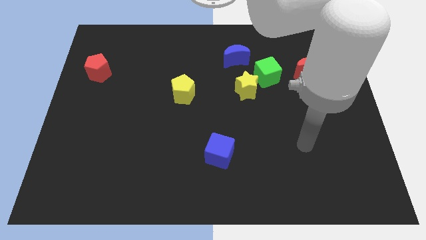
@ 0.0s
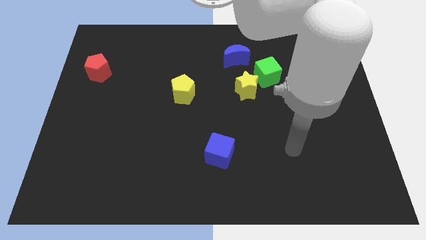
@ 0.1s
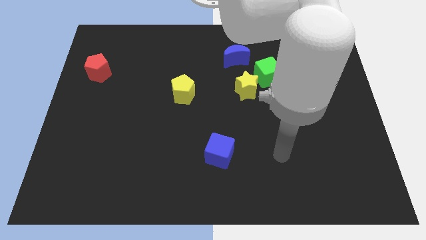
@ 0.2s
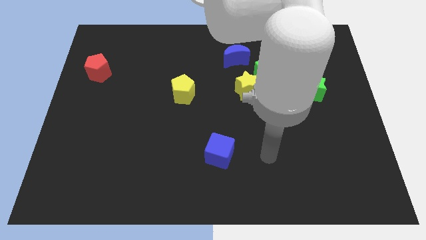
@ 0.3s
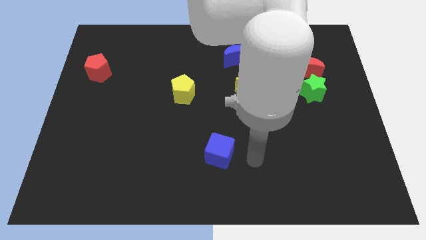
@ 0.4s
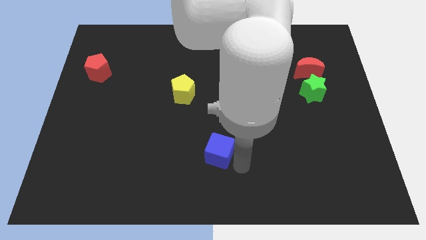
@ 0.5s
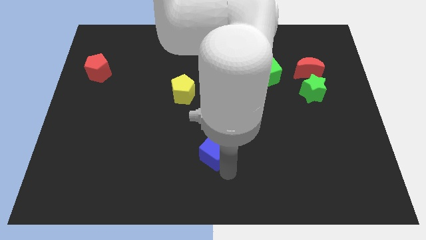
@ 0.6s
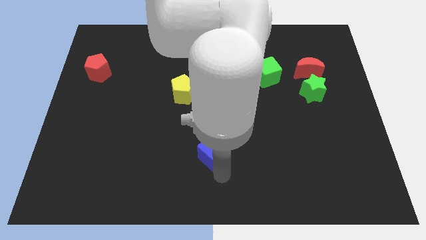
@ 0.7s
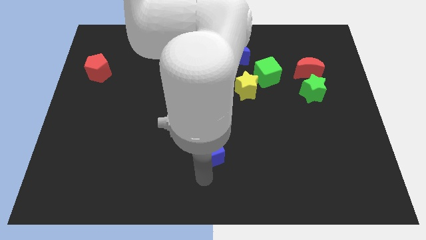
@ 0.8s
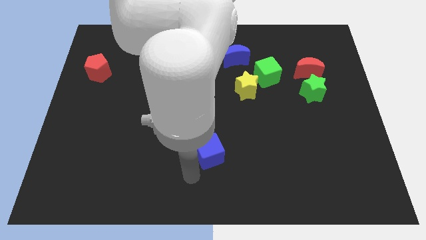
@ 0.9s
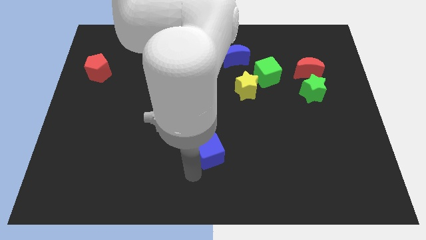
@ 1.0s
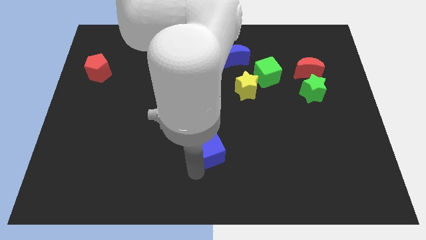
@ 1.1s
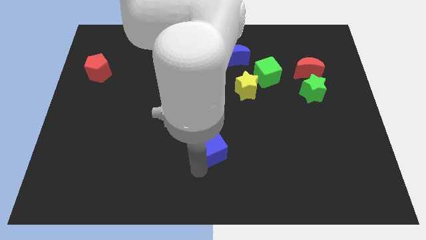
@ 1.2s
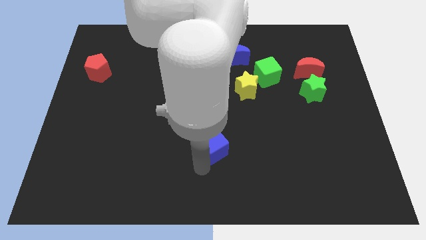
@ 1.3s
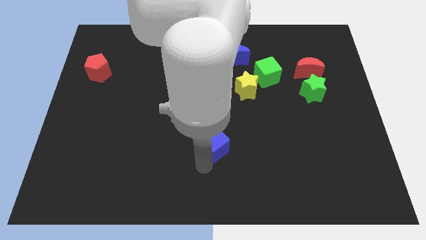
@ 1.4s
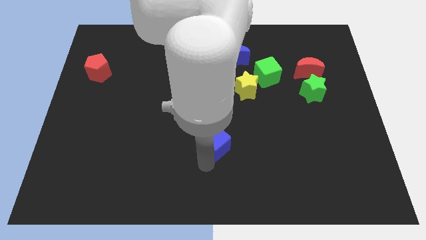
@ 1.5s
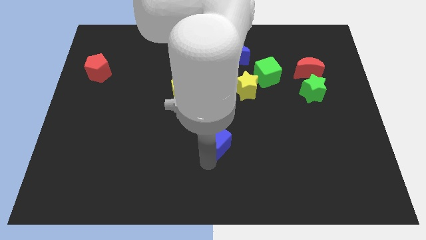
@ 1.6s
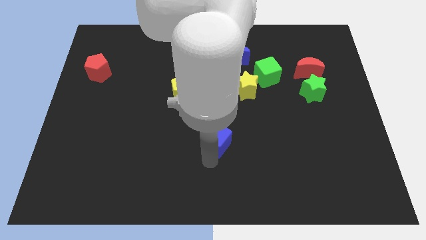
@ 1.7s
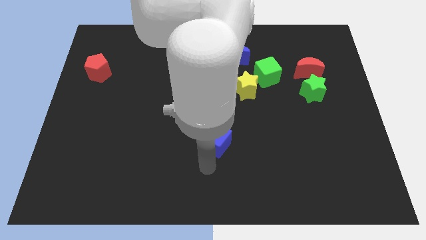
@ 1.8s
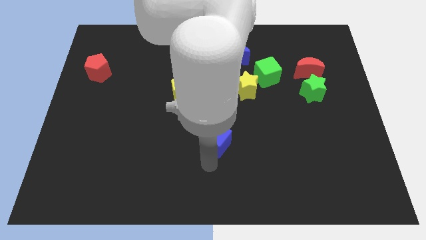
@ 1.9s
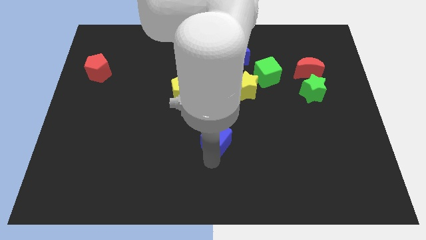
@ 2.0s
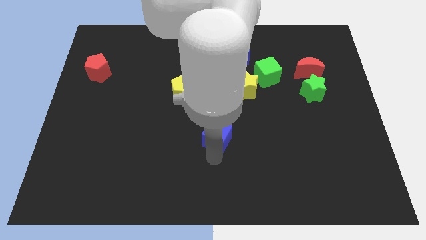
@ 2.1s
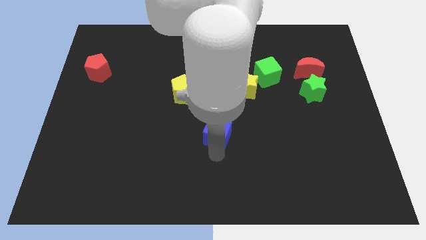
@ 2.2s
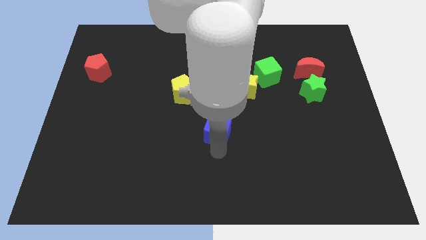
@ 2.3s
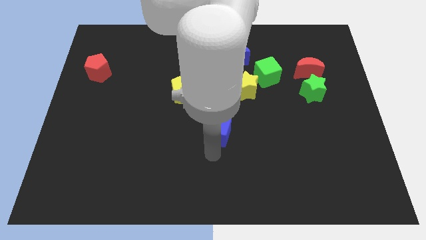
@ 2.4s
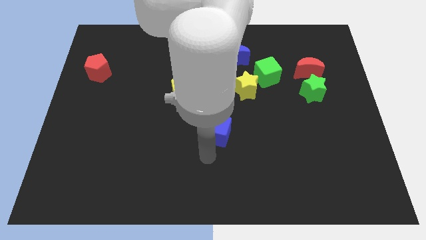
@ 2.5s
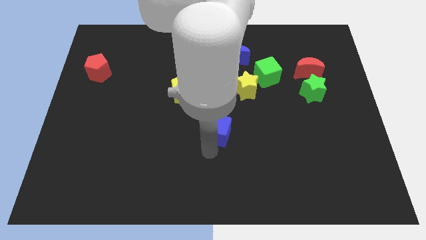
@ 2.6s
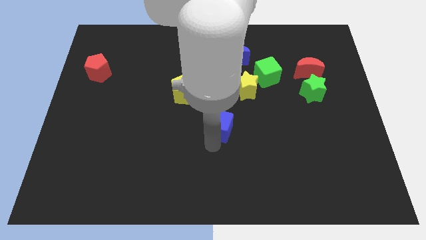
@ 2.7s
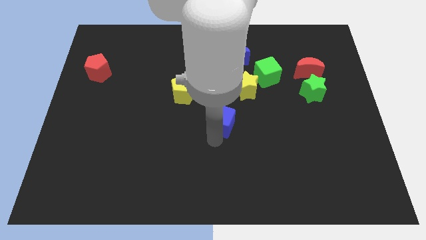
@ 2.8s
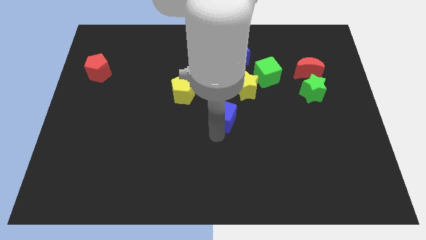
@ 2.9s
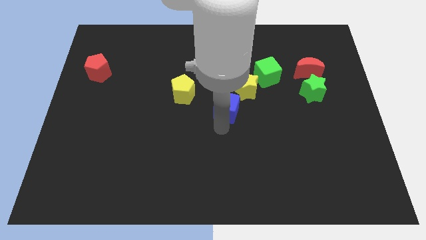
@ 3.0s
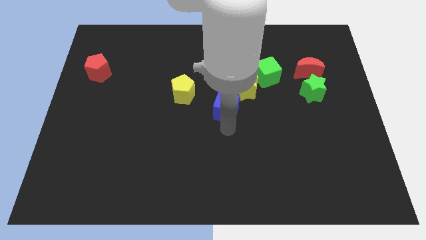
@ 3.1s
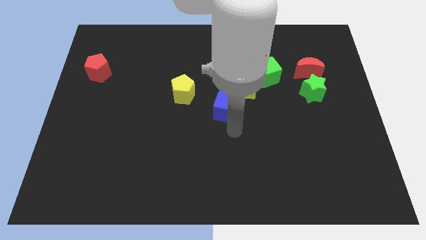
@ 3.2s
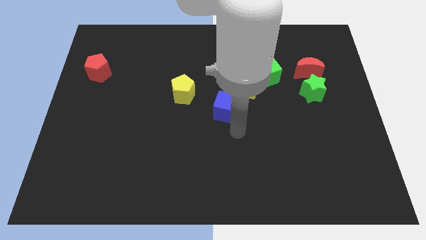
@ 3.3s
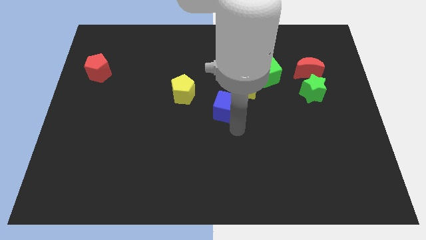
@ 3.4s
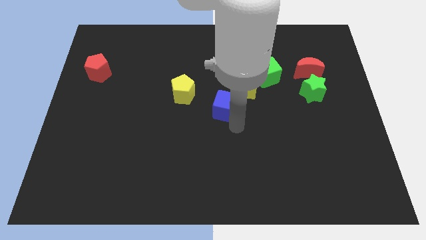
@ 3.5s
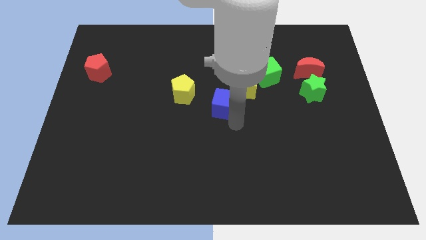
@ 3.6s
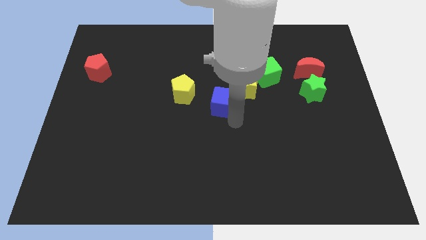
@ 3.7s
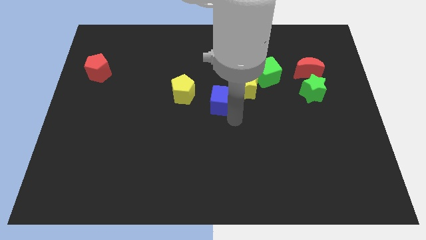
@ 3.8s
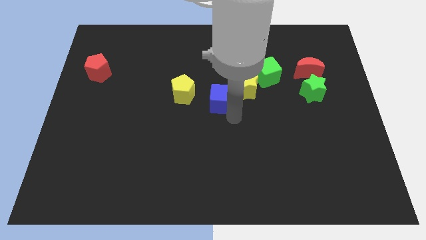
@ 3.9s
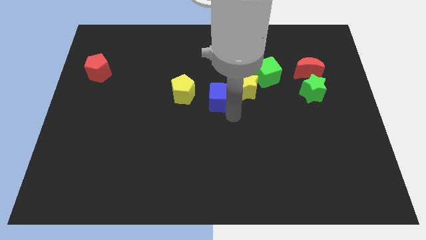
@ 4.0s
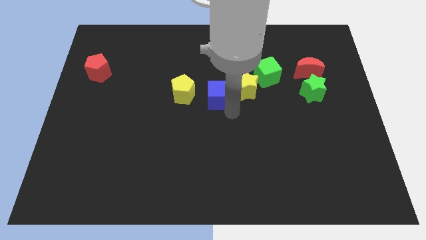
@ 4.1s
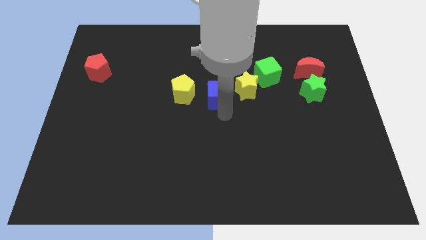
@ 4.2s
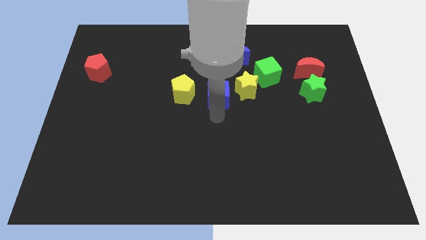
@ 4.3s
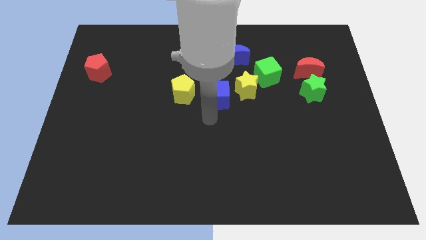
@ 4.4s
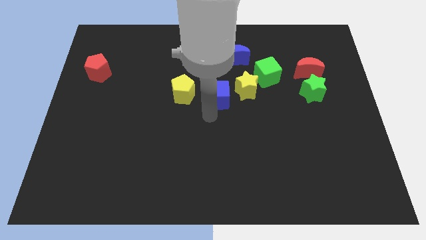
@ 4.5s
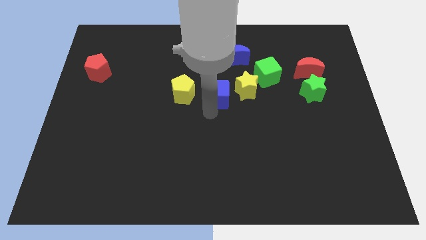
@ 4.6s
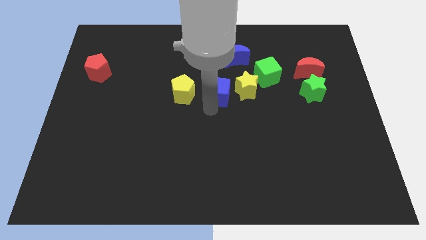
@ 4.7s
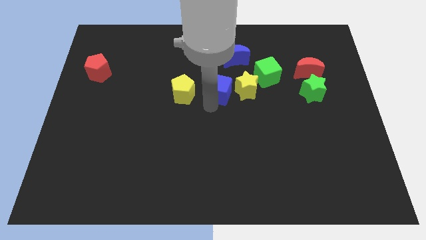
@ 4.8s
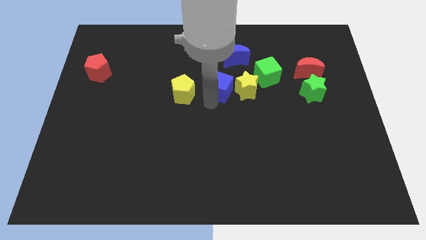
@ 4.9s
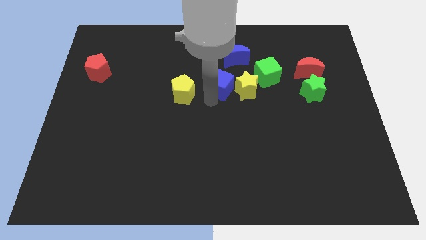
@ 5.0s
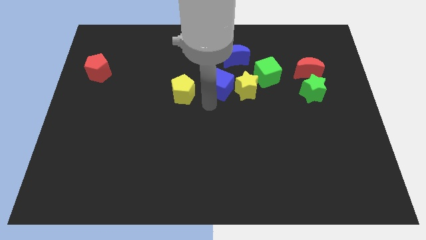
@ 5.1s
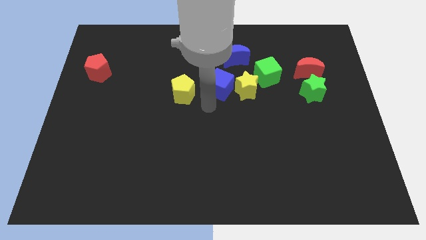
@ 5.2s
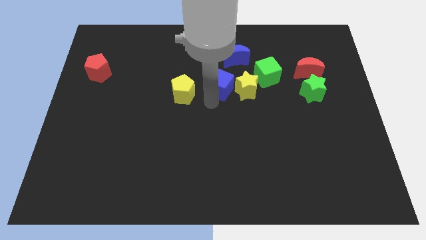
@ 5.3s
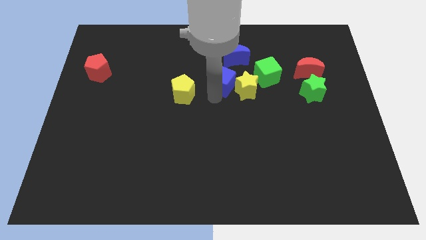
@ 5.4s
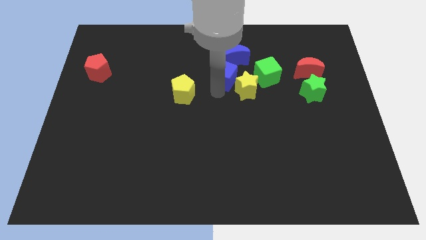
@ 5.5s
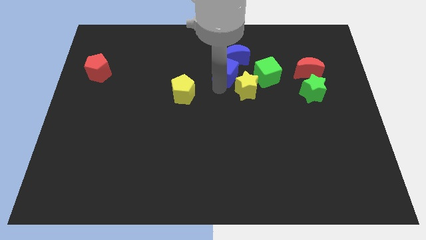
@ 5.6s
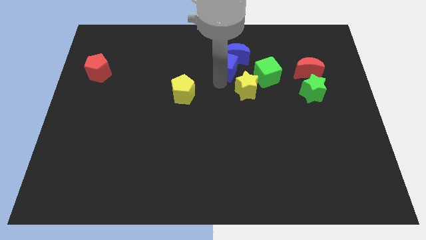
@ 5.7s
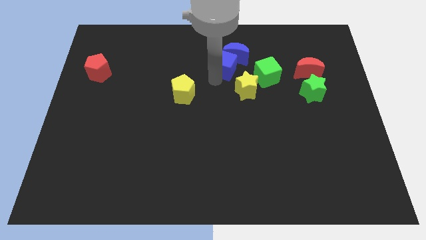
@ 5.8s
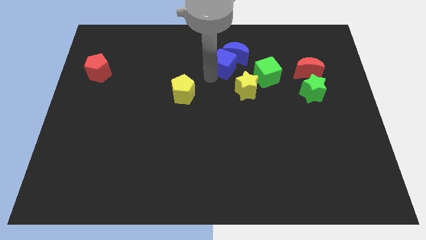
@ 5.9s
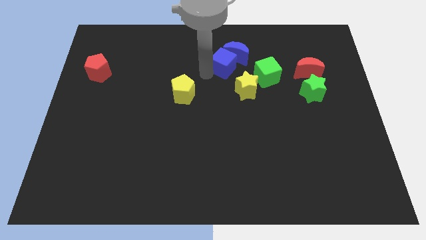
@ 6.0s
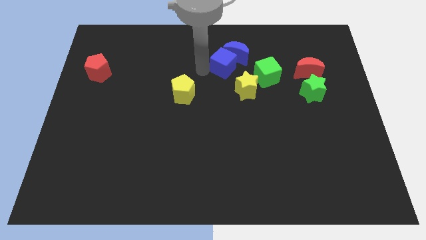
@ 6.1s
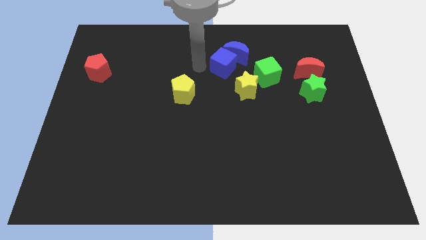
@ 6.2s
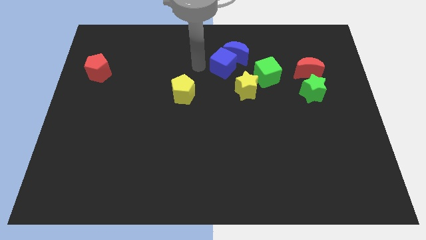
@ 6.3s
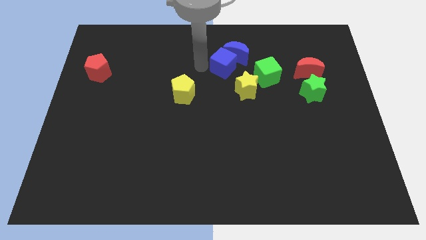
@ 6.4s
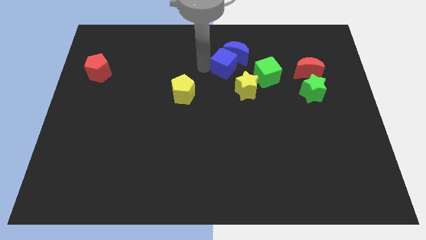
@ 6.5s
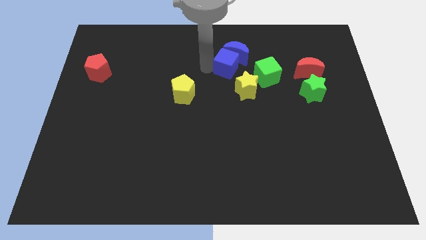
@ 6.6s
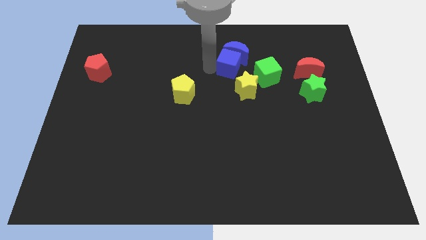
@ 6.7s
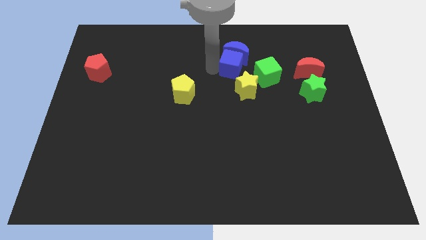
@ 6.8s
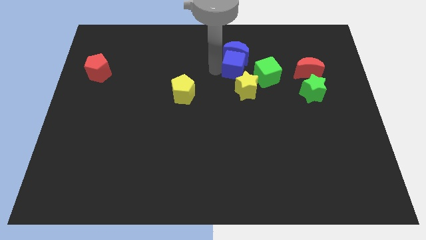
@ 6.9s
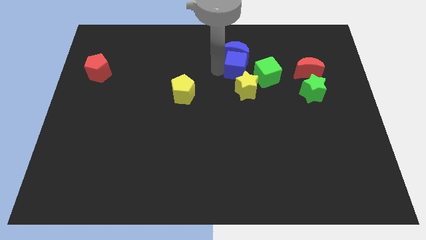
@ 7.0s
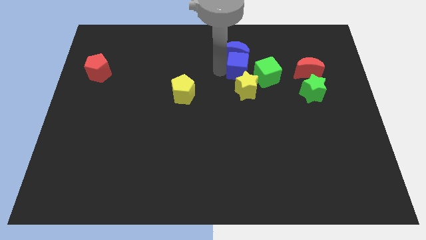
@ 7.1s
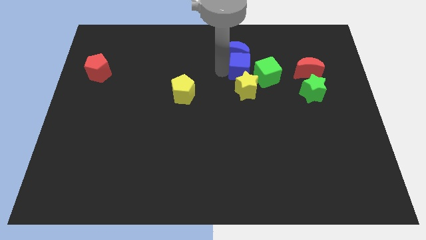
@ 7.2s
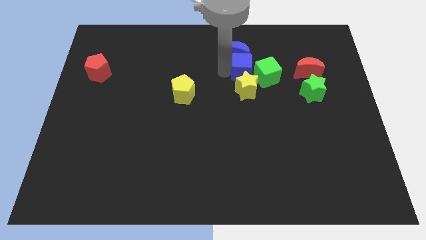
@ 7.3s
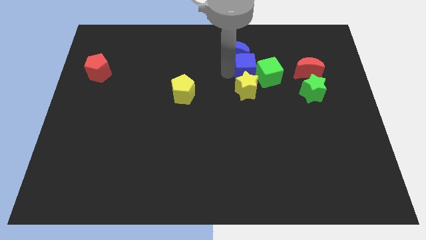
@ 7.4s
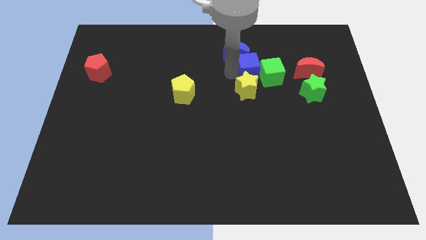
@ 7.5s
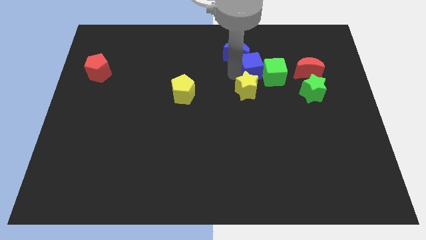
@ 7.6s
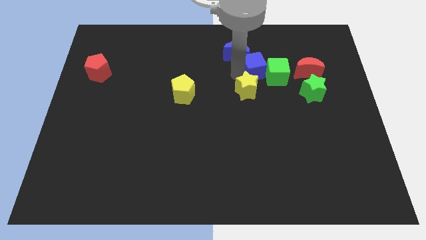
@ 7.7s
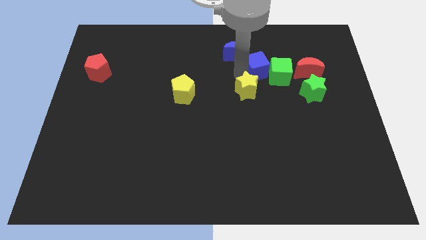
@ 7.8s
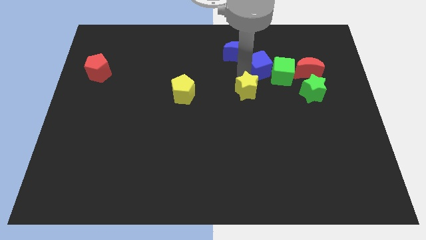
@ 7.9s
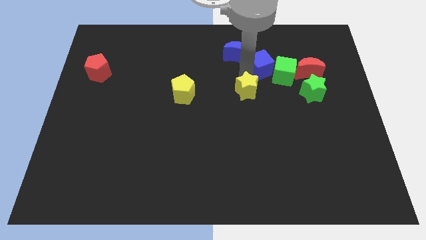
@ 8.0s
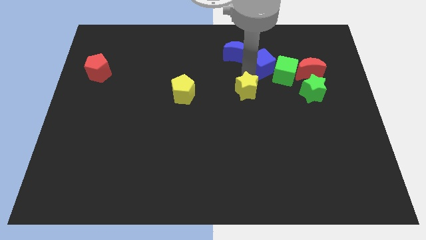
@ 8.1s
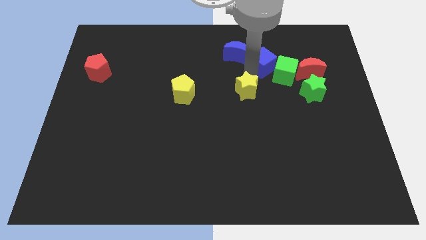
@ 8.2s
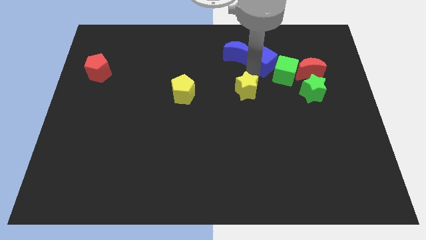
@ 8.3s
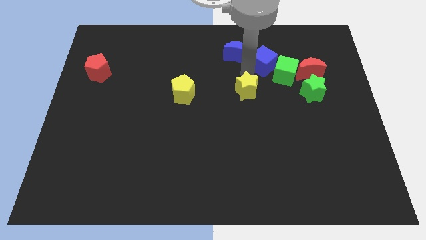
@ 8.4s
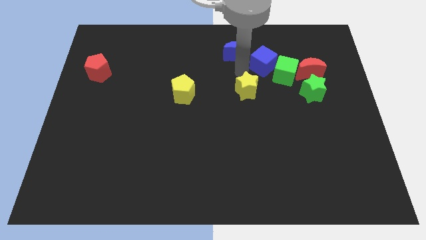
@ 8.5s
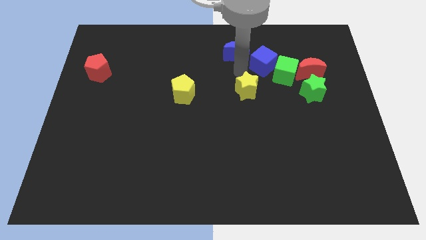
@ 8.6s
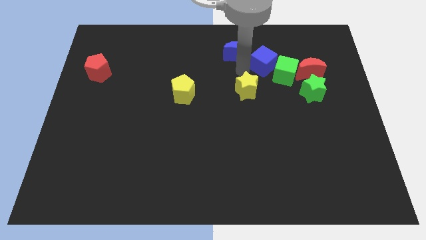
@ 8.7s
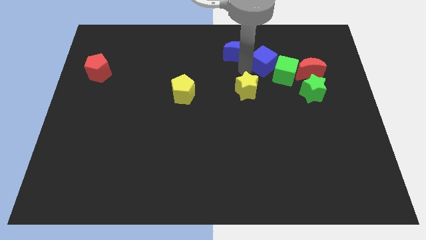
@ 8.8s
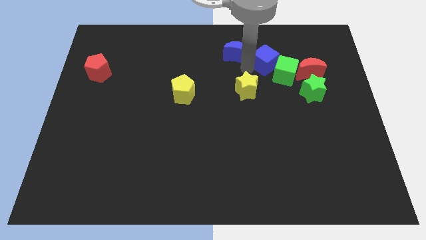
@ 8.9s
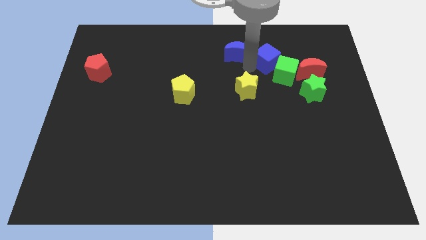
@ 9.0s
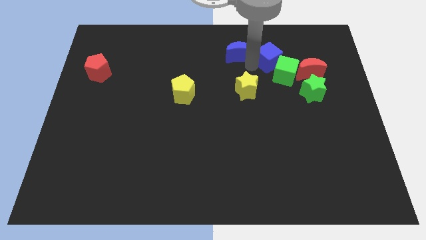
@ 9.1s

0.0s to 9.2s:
move the blue cube to the top left of the red moon
